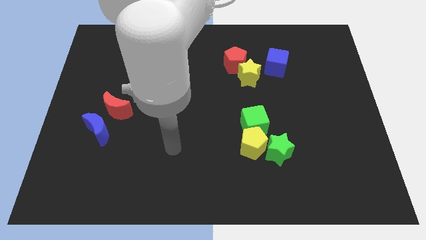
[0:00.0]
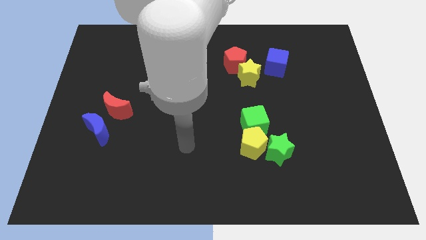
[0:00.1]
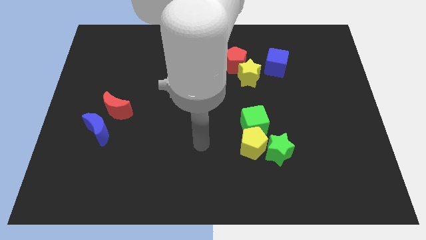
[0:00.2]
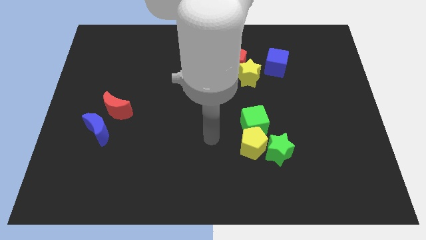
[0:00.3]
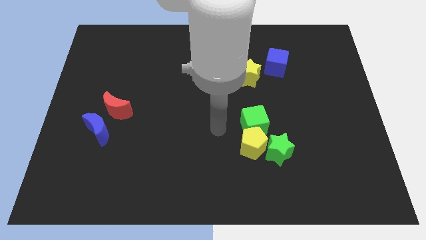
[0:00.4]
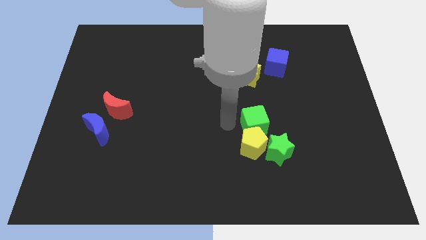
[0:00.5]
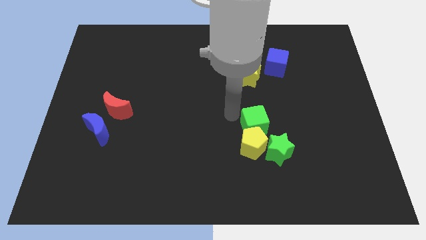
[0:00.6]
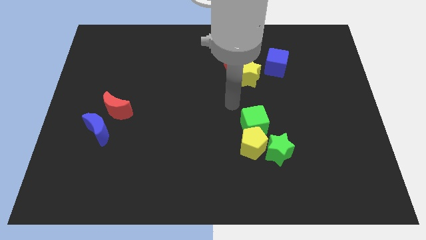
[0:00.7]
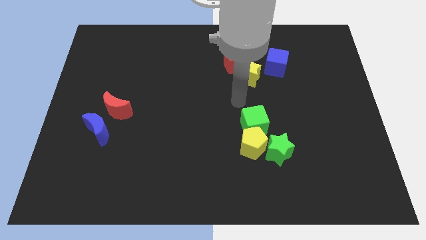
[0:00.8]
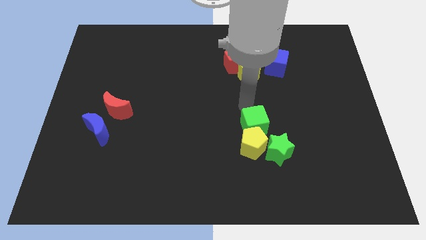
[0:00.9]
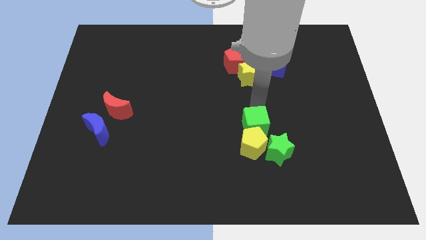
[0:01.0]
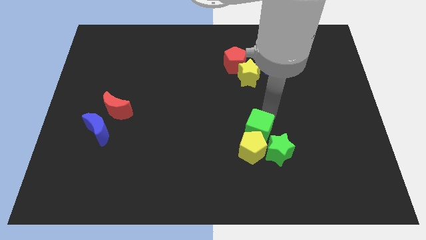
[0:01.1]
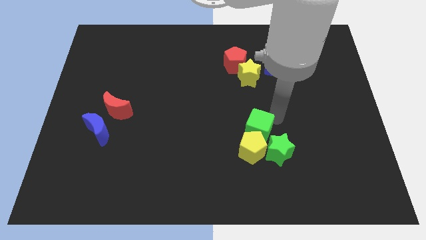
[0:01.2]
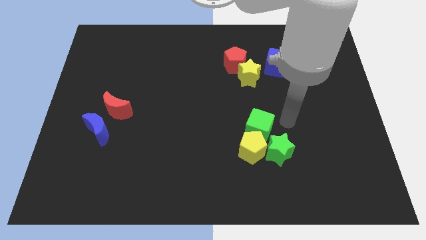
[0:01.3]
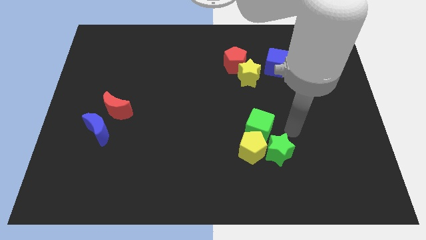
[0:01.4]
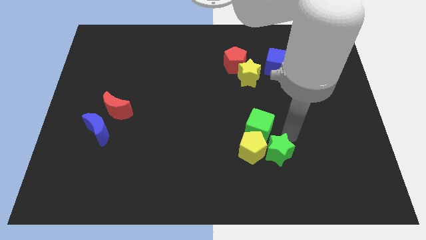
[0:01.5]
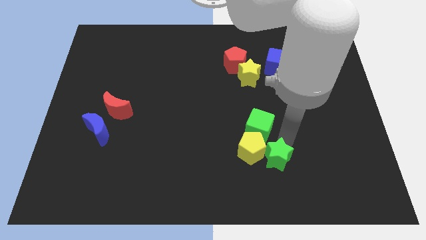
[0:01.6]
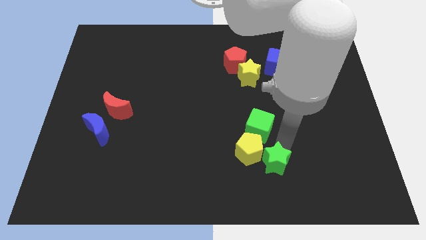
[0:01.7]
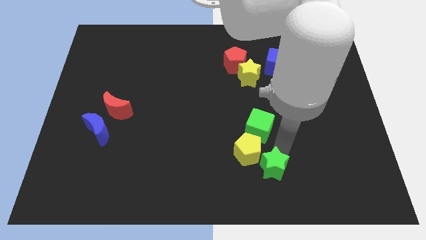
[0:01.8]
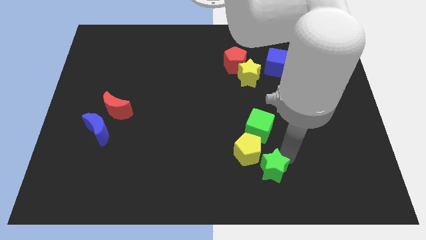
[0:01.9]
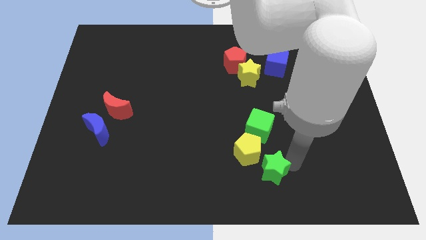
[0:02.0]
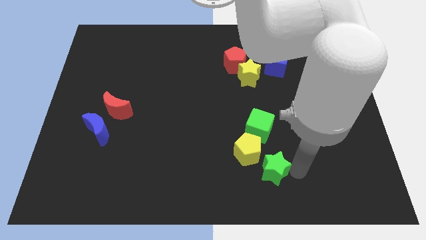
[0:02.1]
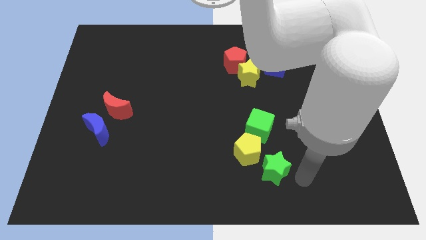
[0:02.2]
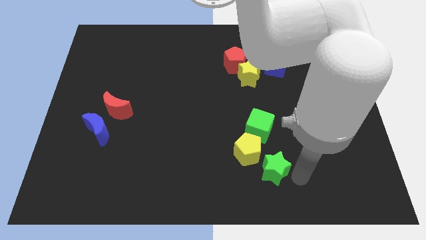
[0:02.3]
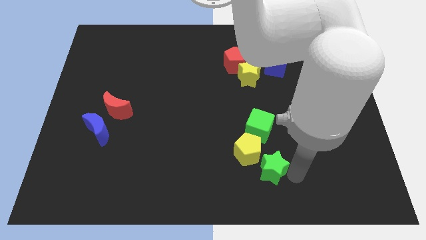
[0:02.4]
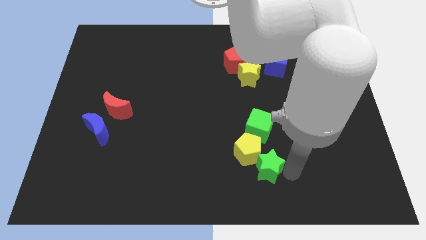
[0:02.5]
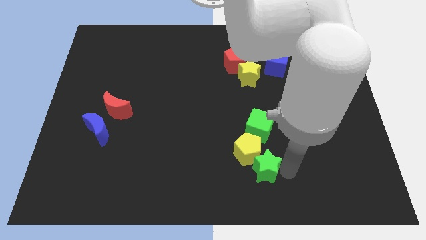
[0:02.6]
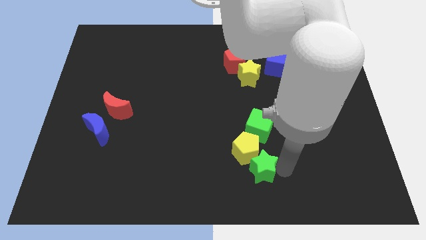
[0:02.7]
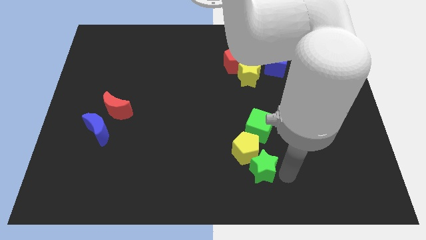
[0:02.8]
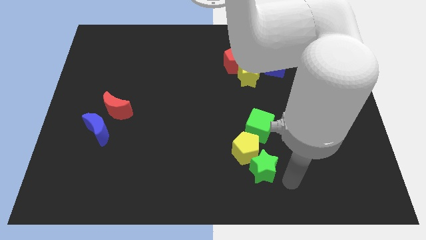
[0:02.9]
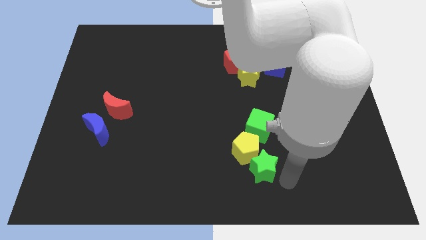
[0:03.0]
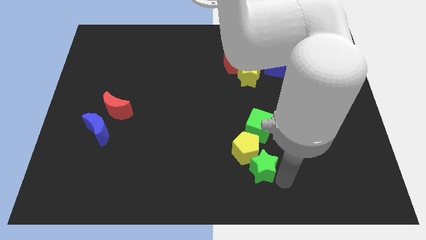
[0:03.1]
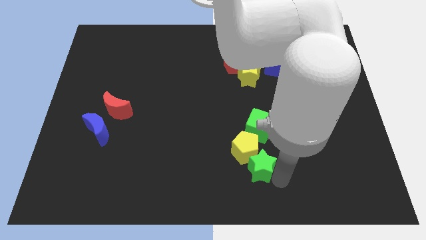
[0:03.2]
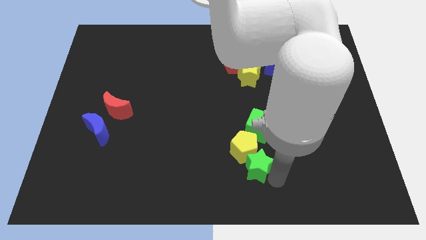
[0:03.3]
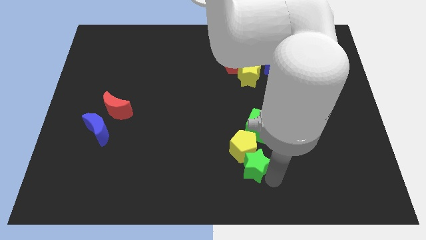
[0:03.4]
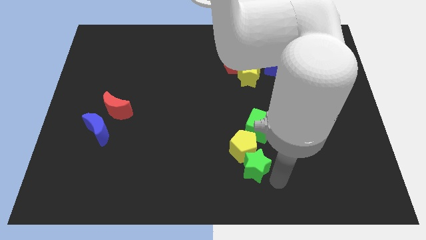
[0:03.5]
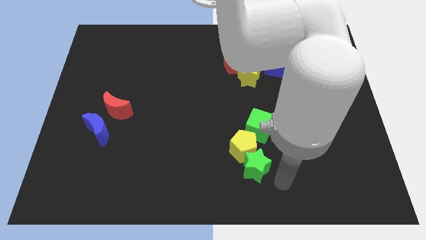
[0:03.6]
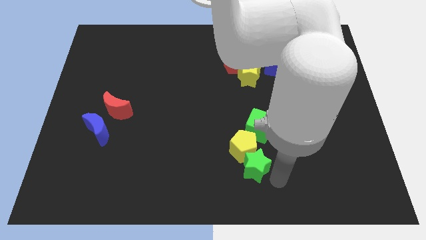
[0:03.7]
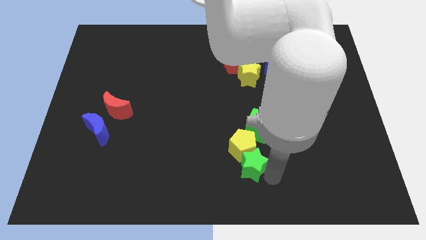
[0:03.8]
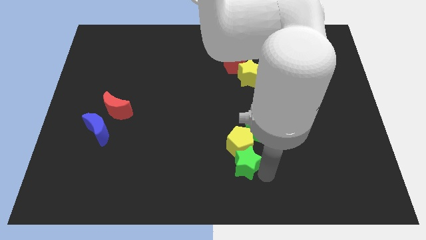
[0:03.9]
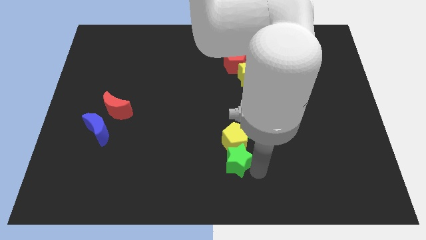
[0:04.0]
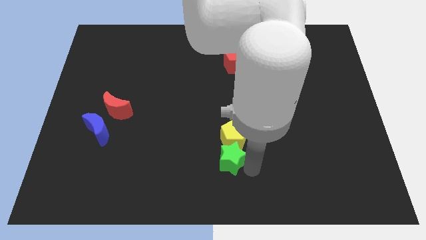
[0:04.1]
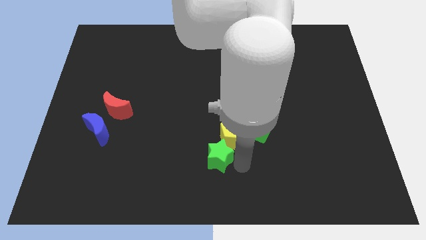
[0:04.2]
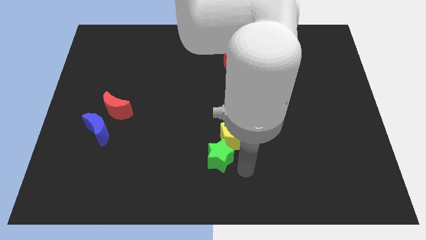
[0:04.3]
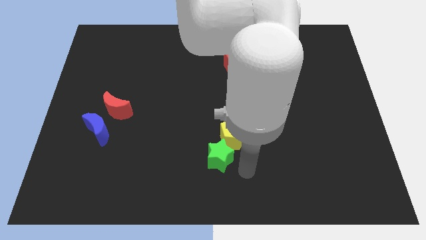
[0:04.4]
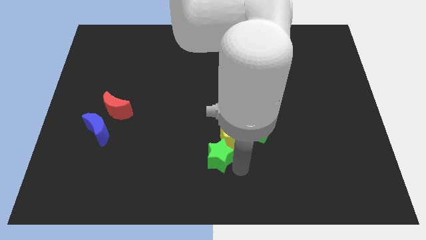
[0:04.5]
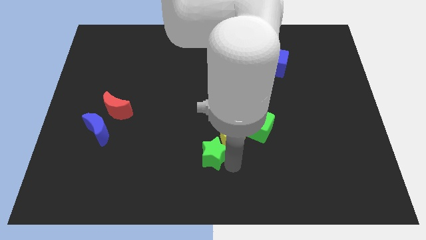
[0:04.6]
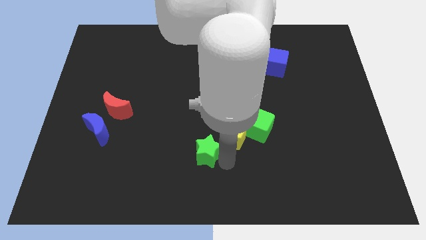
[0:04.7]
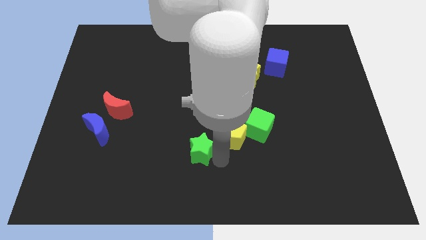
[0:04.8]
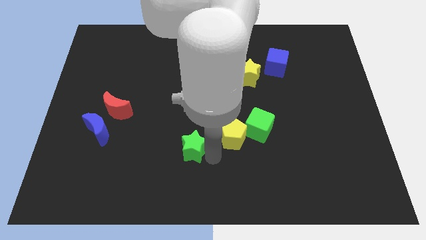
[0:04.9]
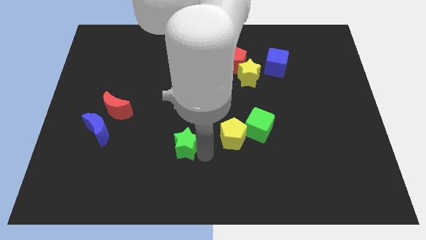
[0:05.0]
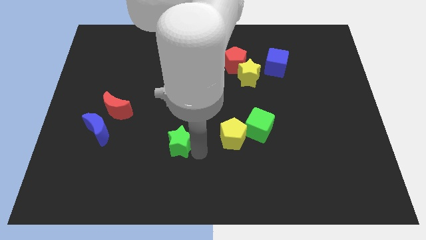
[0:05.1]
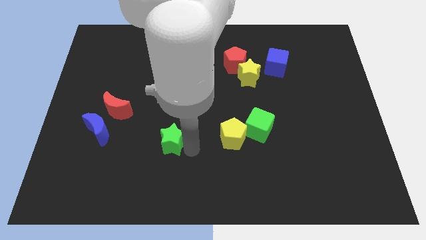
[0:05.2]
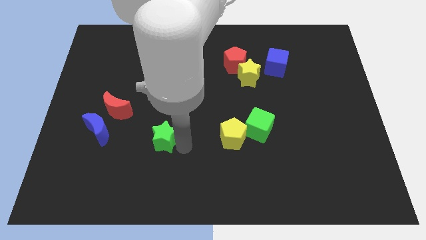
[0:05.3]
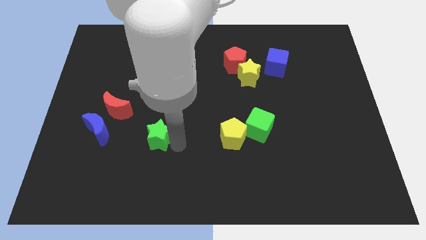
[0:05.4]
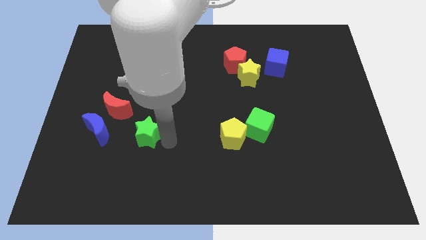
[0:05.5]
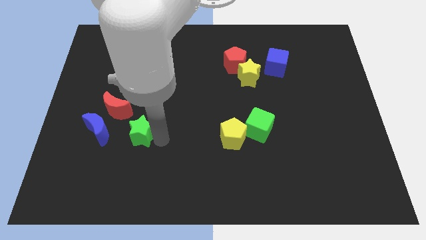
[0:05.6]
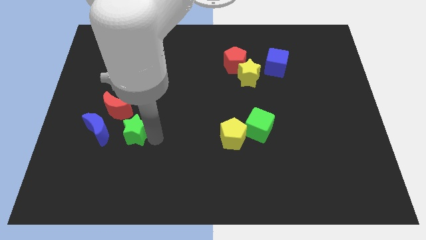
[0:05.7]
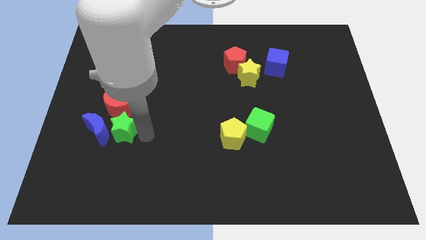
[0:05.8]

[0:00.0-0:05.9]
move the green star to the blue moon

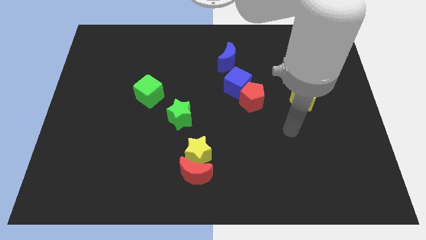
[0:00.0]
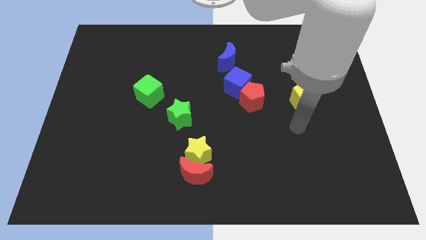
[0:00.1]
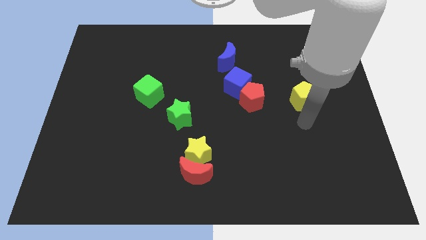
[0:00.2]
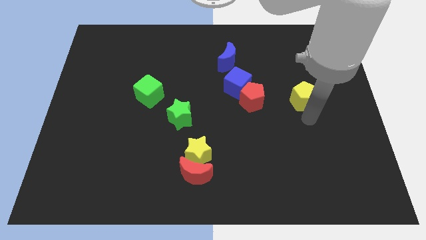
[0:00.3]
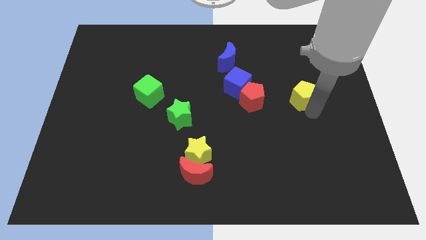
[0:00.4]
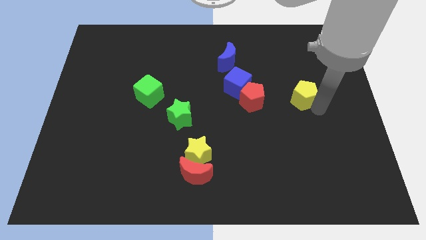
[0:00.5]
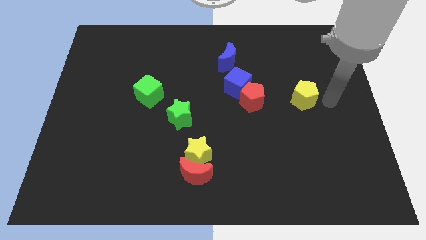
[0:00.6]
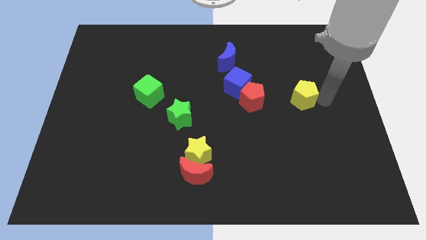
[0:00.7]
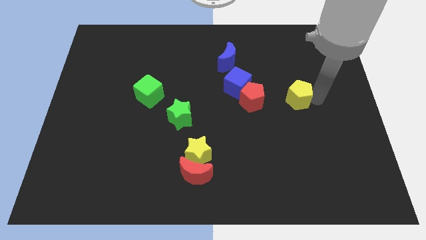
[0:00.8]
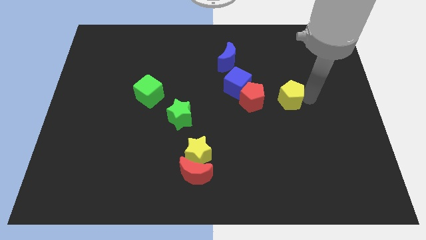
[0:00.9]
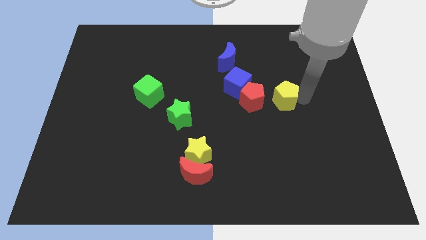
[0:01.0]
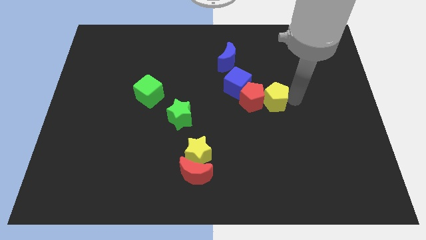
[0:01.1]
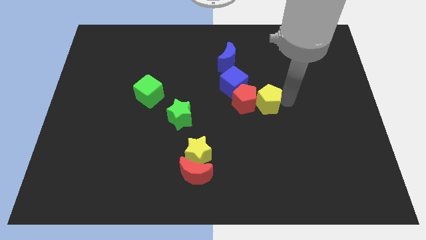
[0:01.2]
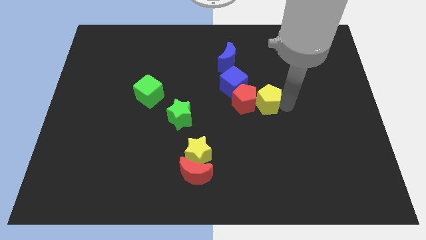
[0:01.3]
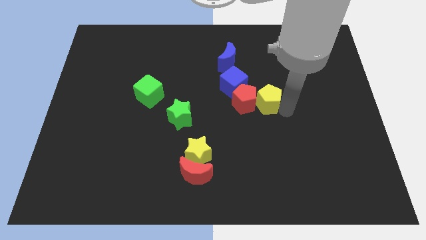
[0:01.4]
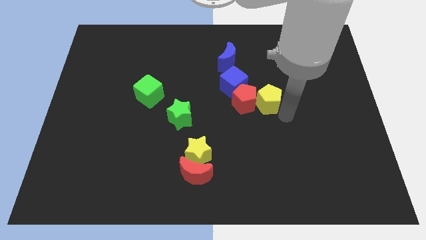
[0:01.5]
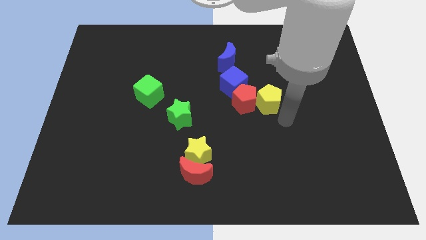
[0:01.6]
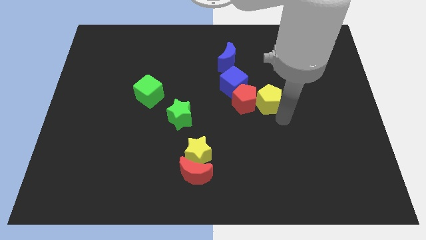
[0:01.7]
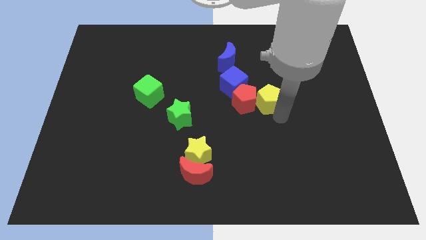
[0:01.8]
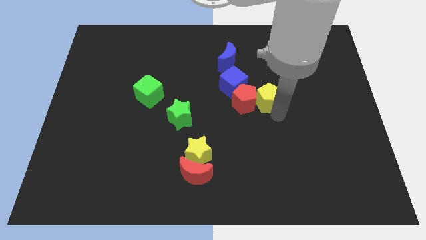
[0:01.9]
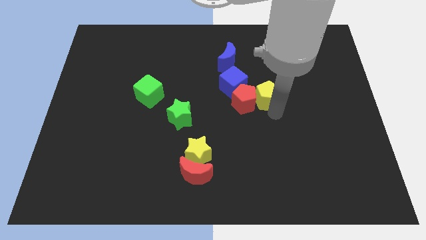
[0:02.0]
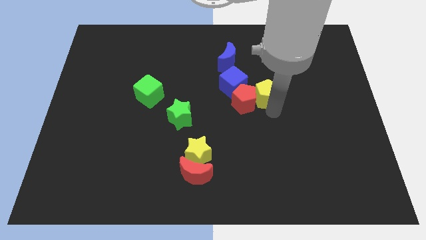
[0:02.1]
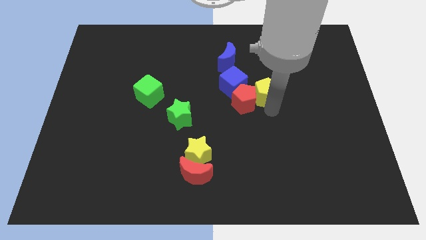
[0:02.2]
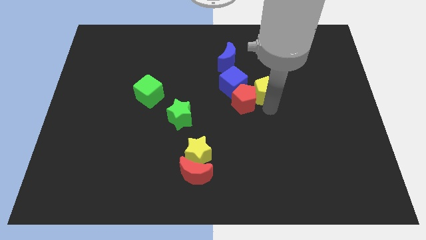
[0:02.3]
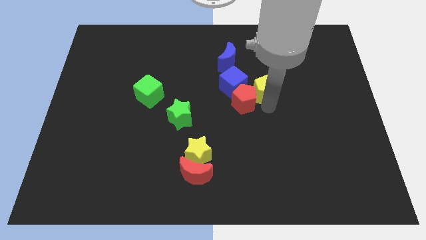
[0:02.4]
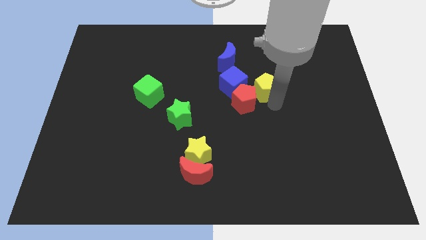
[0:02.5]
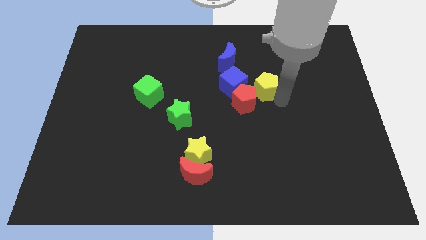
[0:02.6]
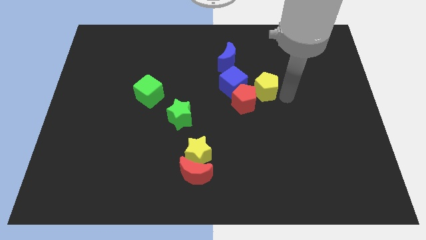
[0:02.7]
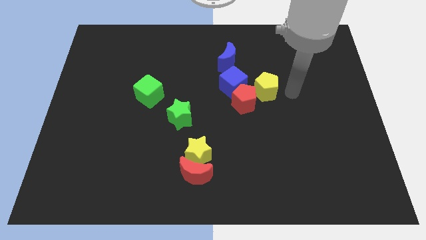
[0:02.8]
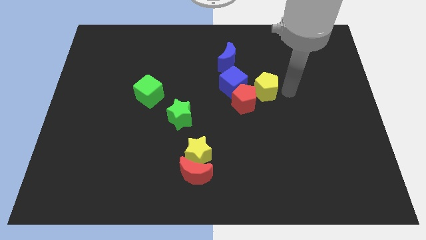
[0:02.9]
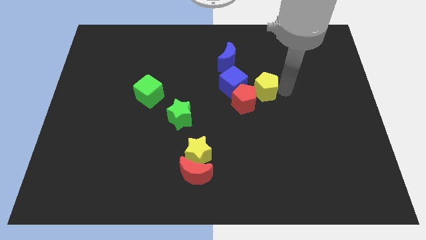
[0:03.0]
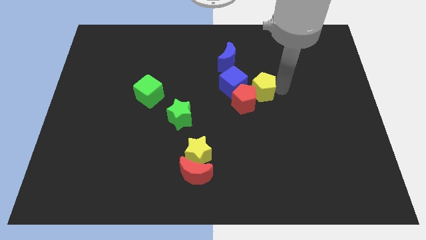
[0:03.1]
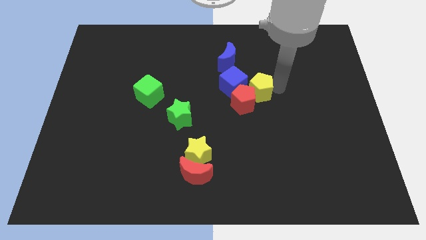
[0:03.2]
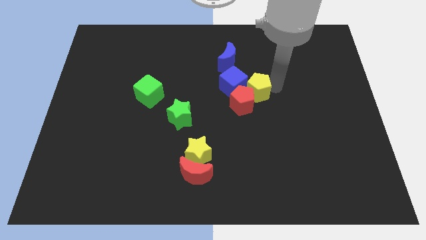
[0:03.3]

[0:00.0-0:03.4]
put the yellow pentagon close to the blue cube
